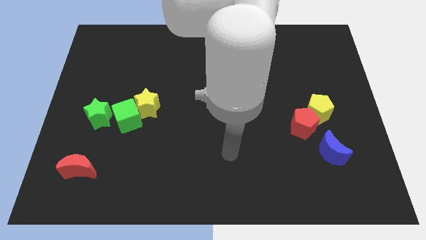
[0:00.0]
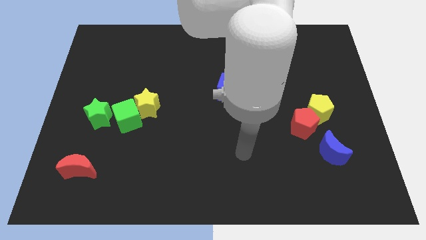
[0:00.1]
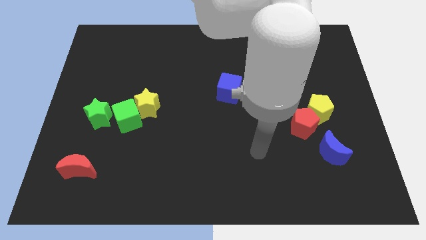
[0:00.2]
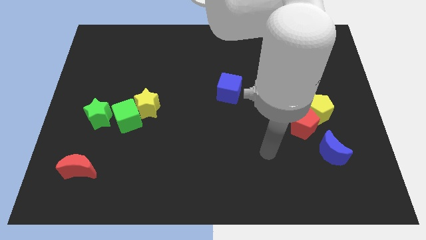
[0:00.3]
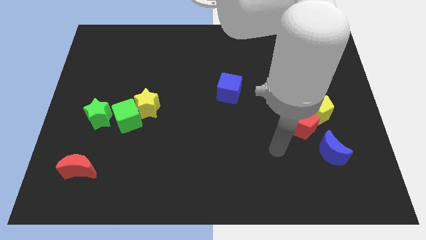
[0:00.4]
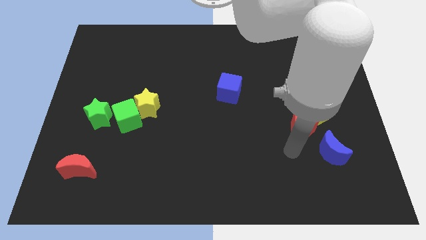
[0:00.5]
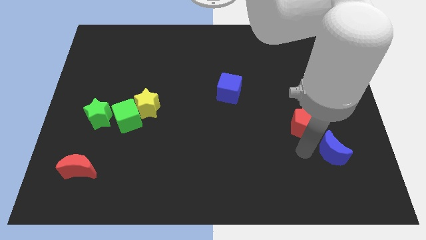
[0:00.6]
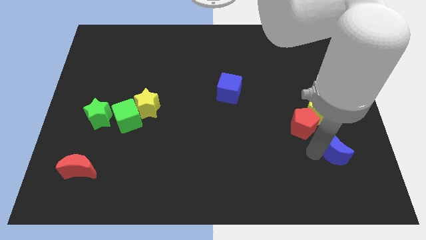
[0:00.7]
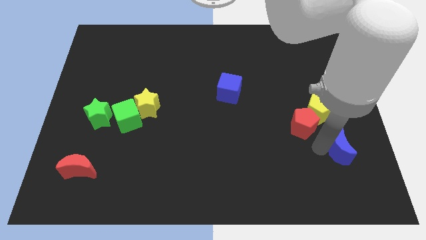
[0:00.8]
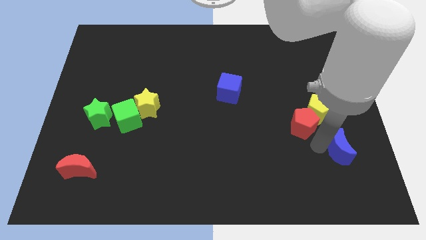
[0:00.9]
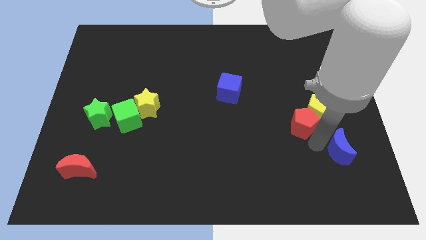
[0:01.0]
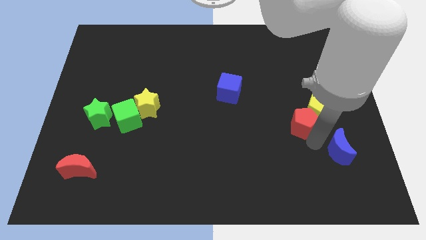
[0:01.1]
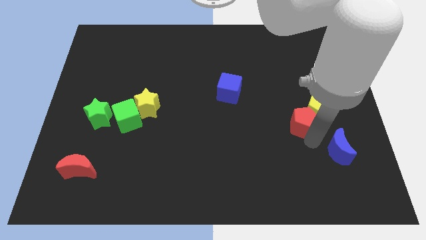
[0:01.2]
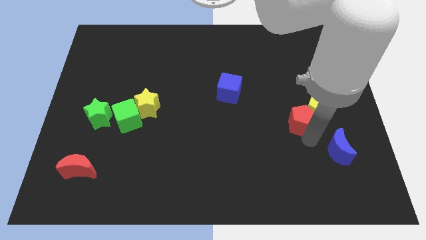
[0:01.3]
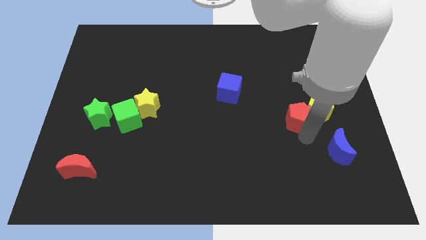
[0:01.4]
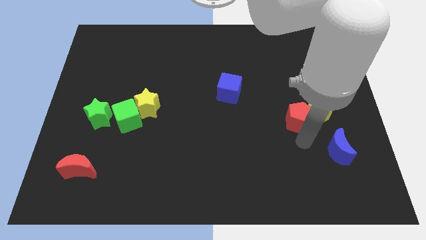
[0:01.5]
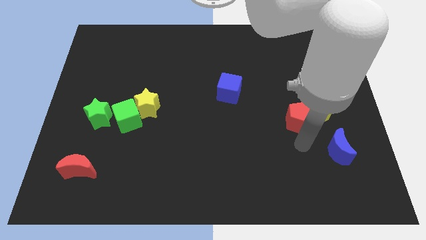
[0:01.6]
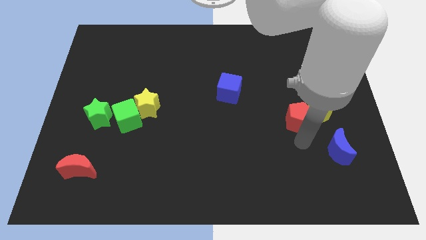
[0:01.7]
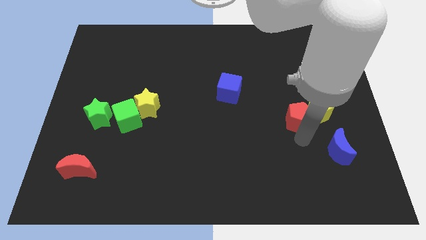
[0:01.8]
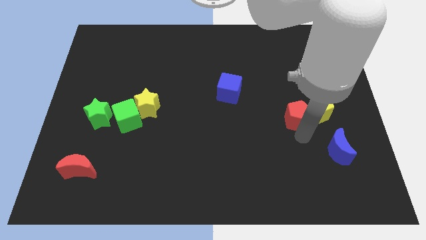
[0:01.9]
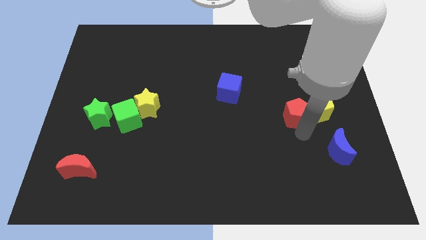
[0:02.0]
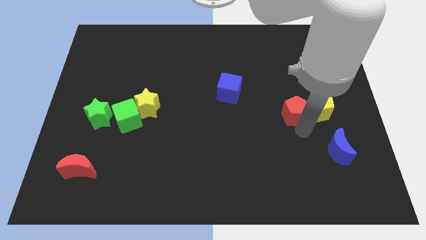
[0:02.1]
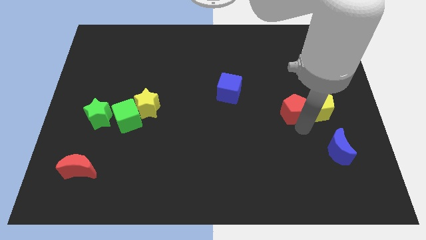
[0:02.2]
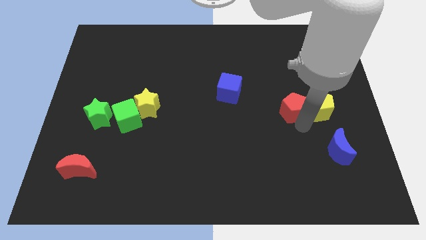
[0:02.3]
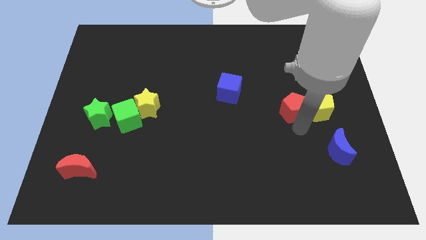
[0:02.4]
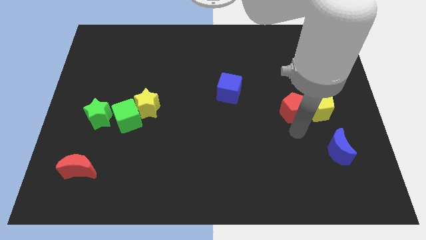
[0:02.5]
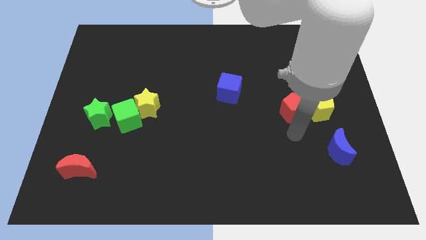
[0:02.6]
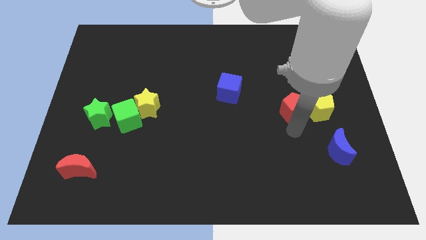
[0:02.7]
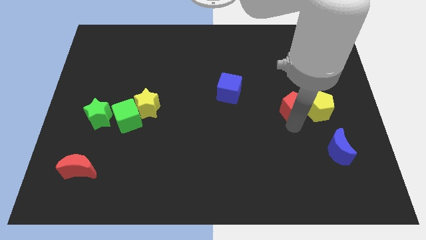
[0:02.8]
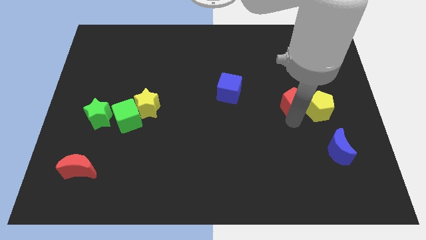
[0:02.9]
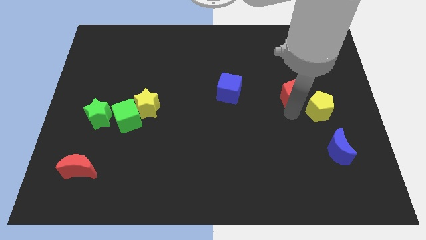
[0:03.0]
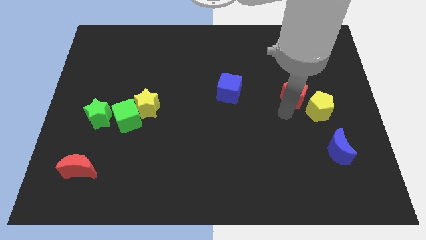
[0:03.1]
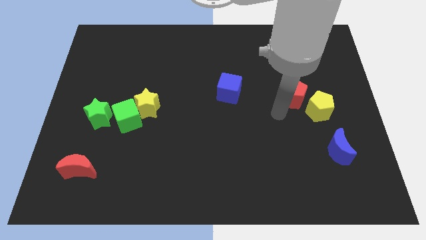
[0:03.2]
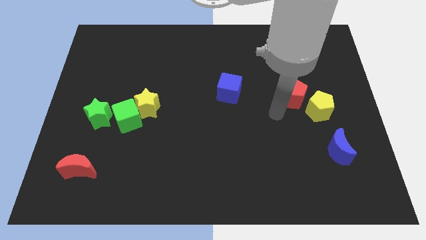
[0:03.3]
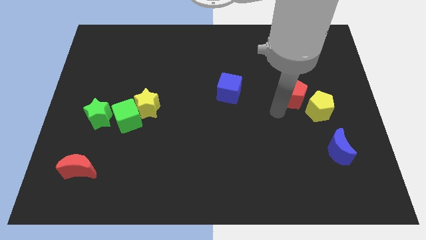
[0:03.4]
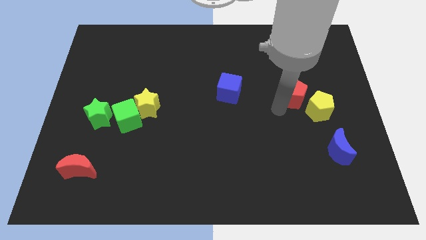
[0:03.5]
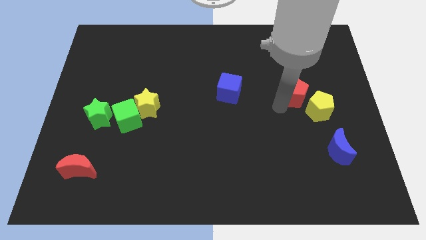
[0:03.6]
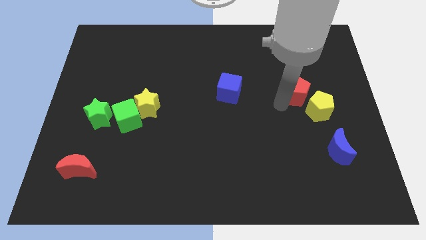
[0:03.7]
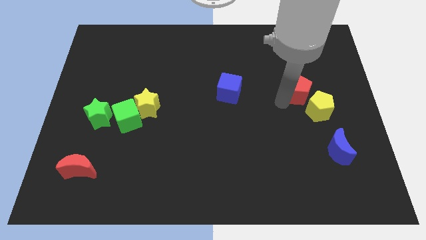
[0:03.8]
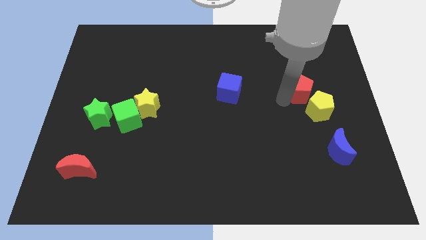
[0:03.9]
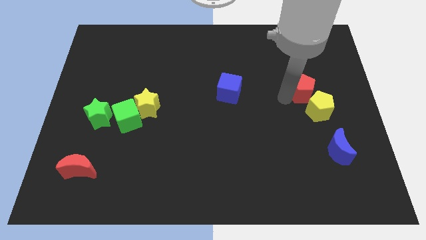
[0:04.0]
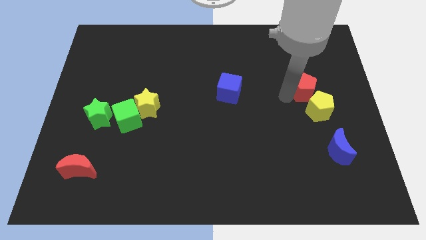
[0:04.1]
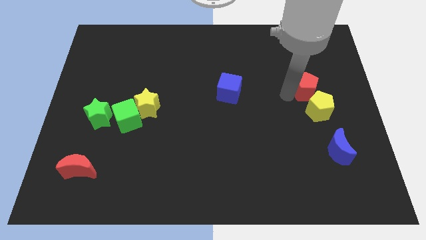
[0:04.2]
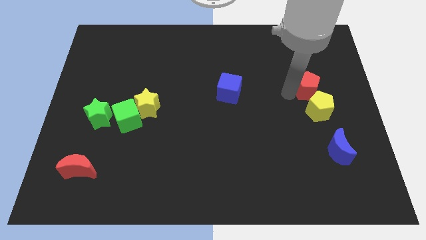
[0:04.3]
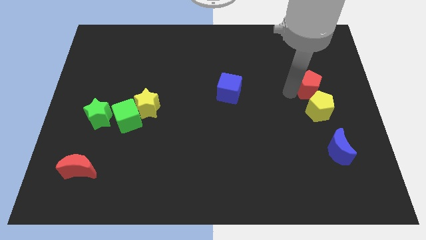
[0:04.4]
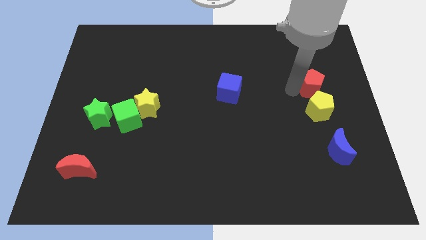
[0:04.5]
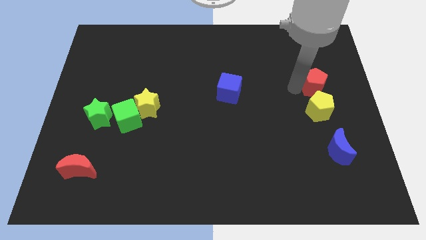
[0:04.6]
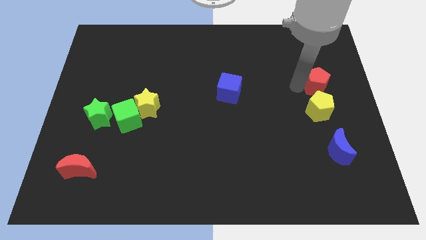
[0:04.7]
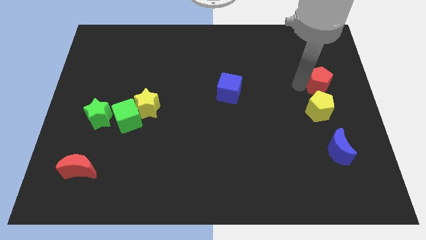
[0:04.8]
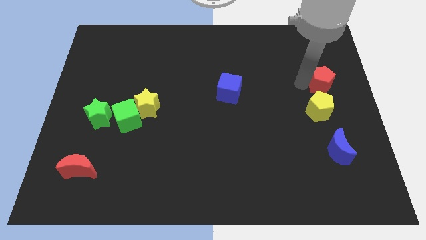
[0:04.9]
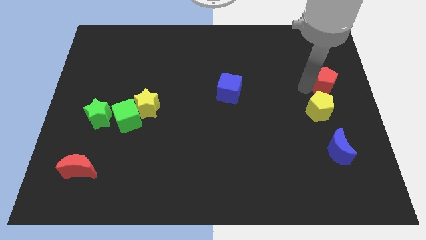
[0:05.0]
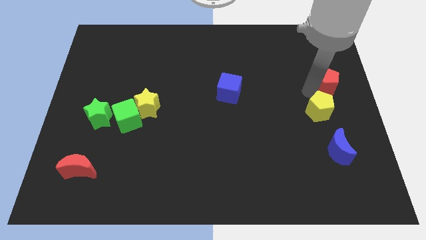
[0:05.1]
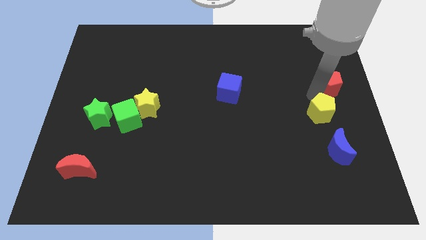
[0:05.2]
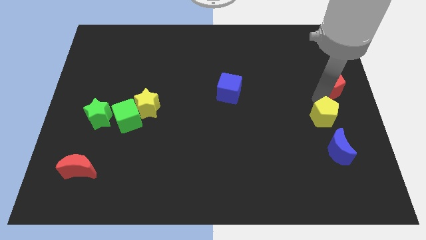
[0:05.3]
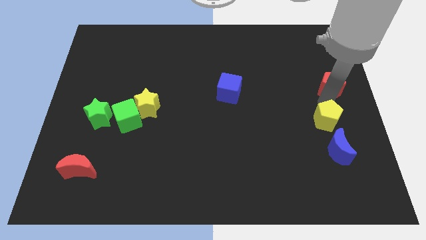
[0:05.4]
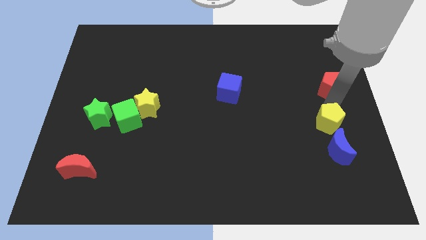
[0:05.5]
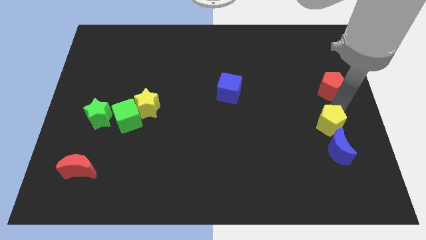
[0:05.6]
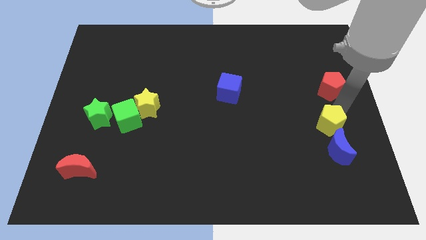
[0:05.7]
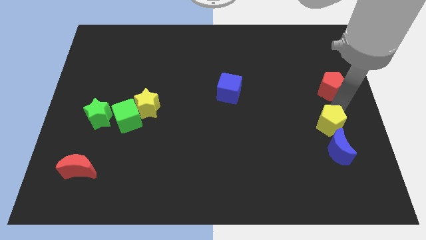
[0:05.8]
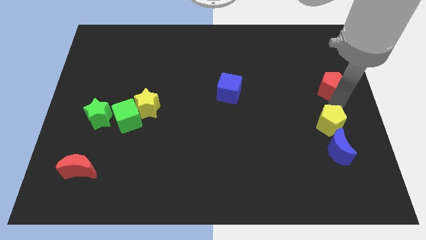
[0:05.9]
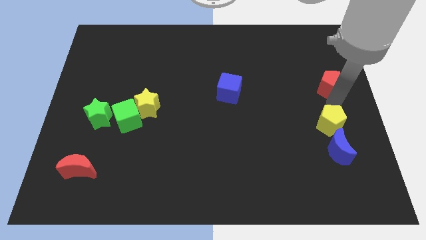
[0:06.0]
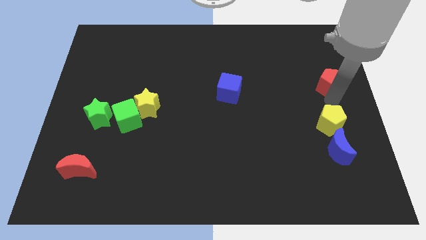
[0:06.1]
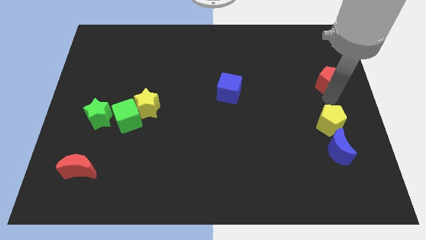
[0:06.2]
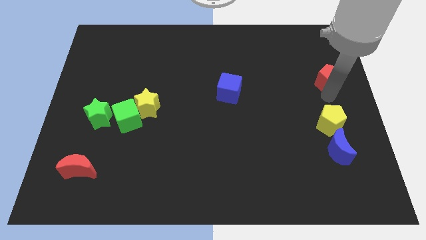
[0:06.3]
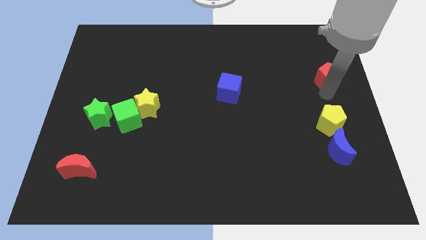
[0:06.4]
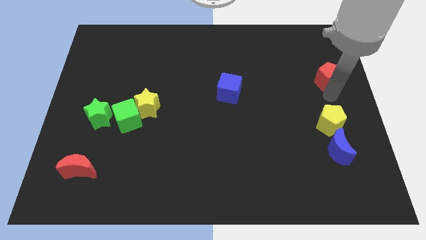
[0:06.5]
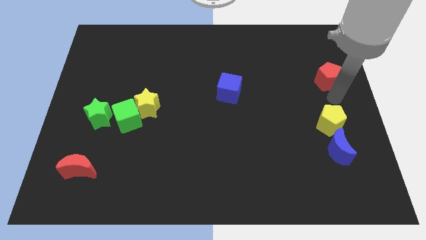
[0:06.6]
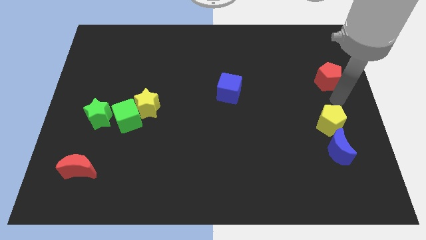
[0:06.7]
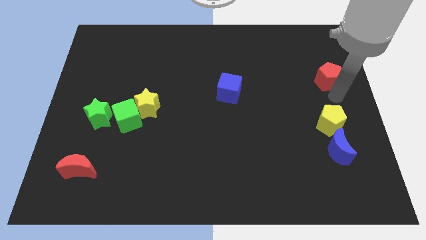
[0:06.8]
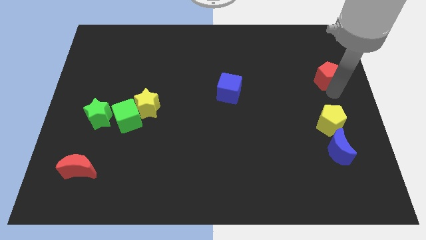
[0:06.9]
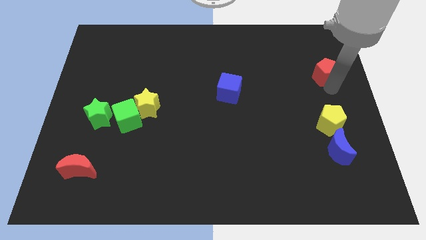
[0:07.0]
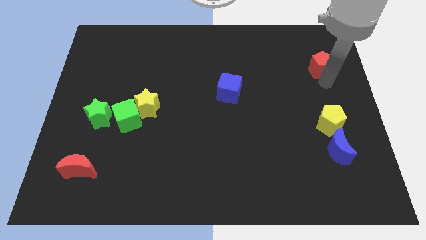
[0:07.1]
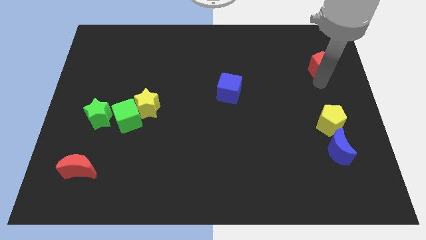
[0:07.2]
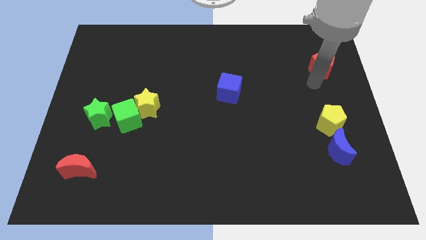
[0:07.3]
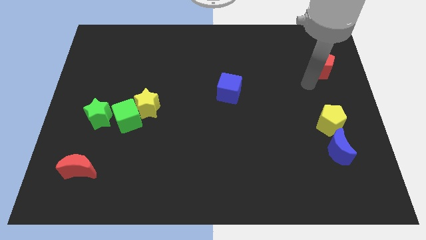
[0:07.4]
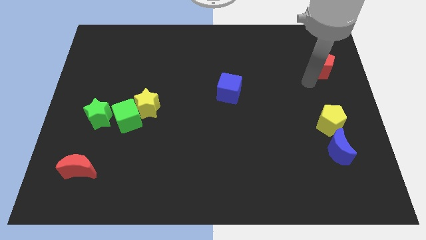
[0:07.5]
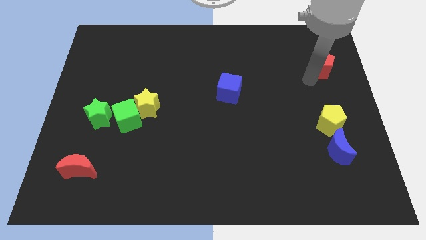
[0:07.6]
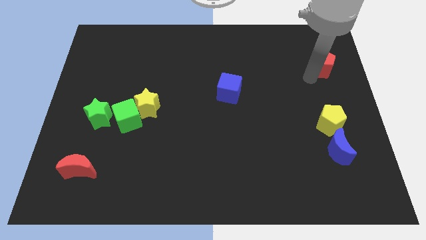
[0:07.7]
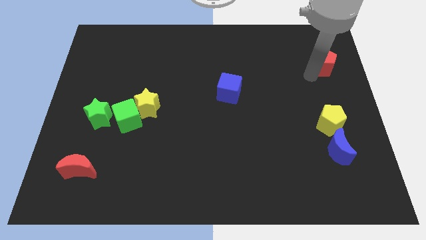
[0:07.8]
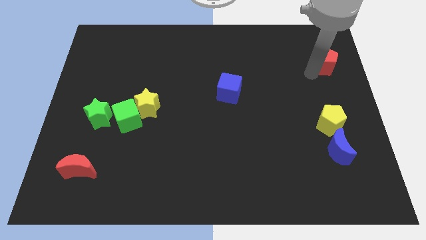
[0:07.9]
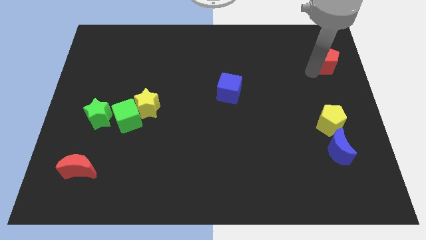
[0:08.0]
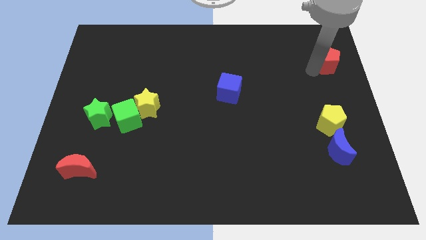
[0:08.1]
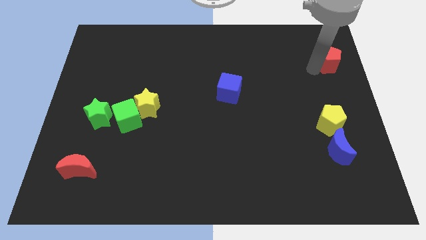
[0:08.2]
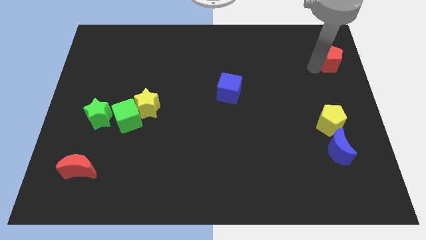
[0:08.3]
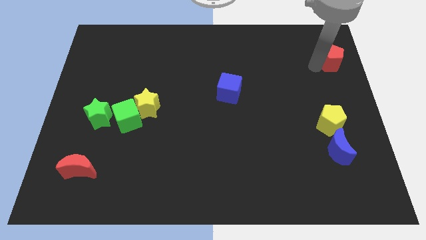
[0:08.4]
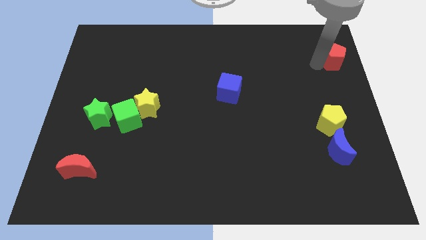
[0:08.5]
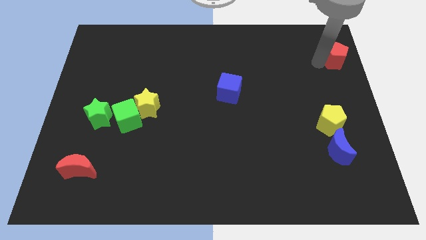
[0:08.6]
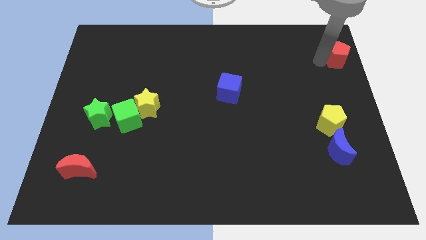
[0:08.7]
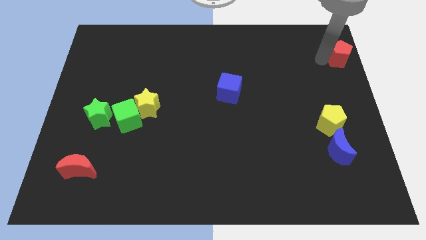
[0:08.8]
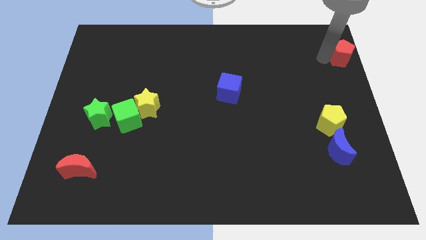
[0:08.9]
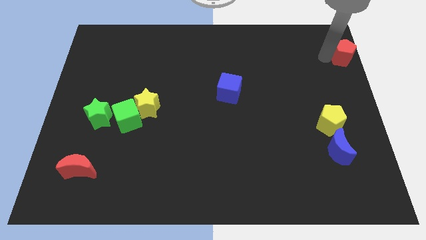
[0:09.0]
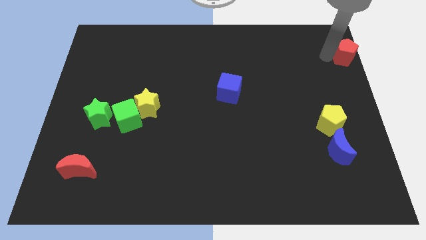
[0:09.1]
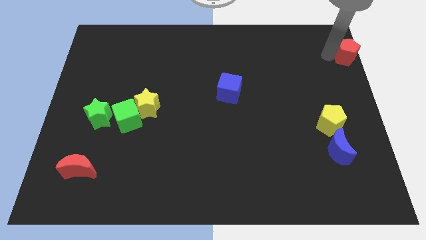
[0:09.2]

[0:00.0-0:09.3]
put the red pentagon to the top right
